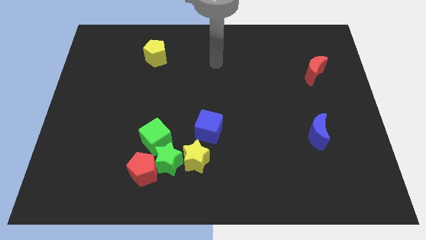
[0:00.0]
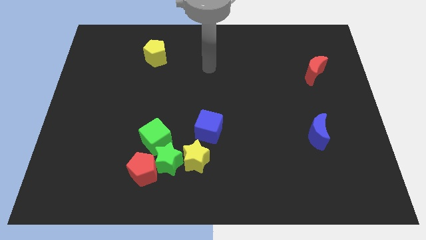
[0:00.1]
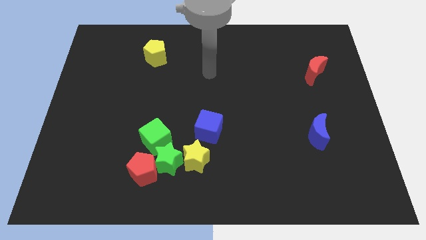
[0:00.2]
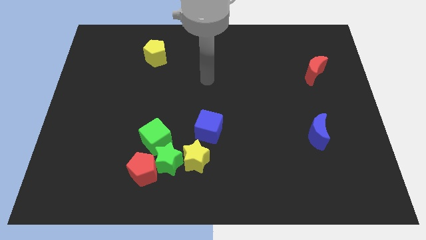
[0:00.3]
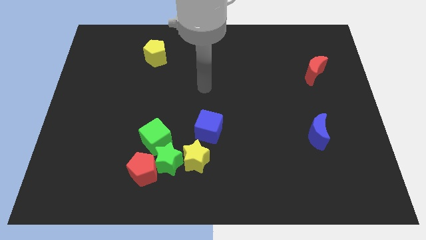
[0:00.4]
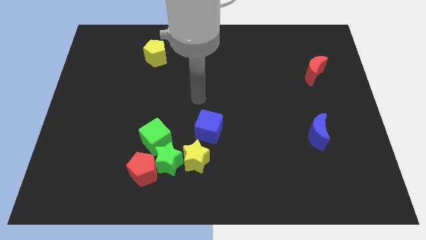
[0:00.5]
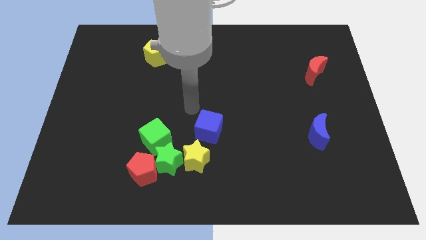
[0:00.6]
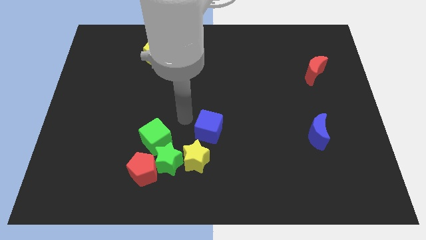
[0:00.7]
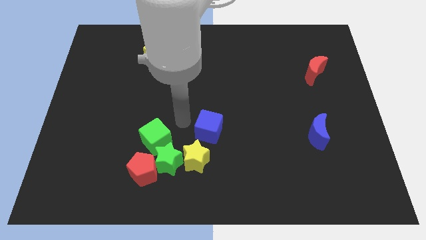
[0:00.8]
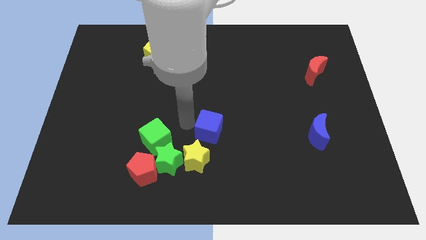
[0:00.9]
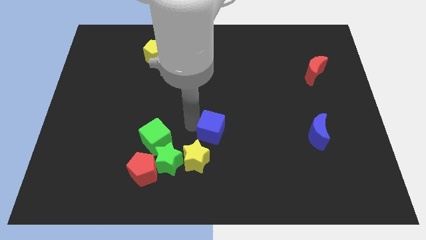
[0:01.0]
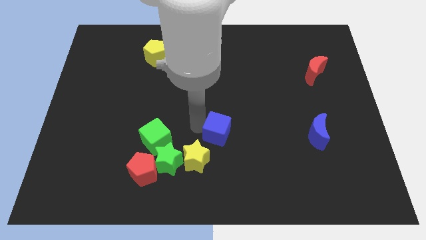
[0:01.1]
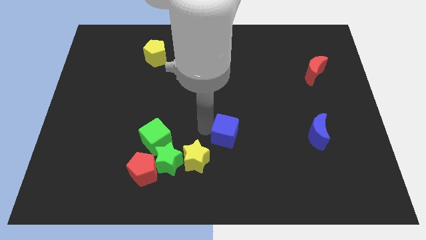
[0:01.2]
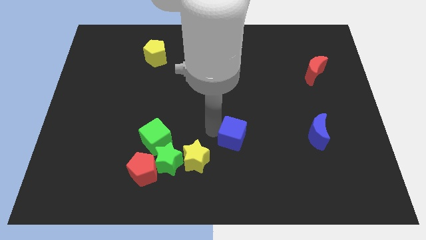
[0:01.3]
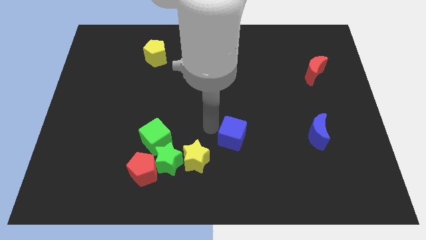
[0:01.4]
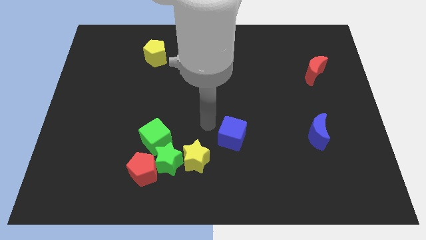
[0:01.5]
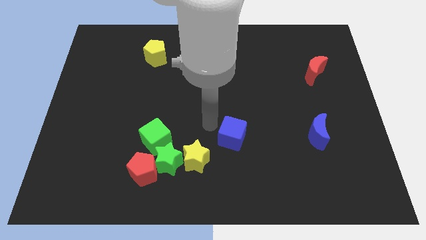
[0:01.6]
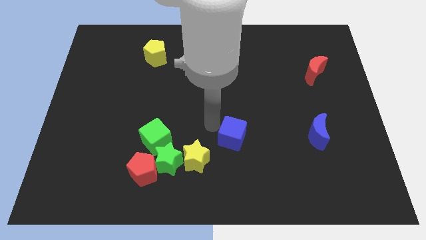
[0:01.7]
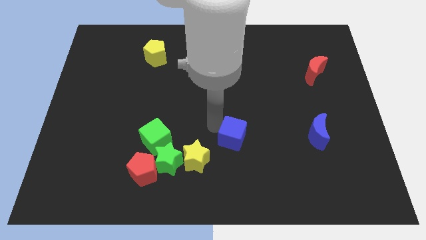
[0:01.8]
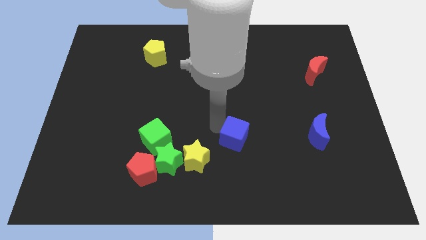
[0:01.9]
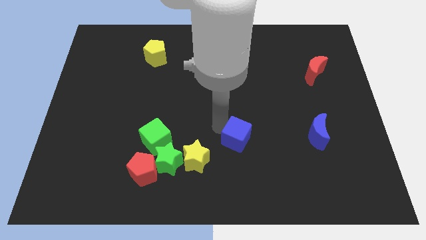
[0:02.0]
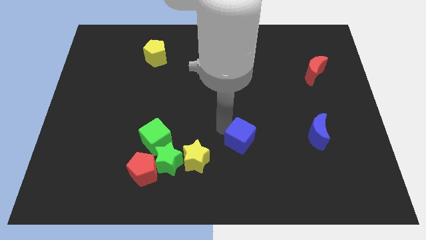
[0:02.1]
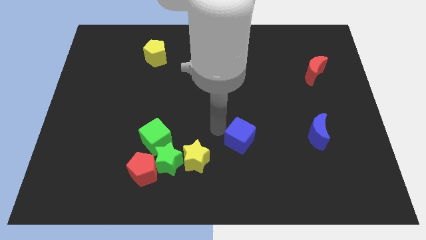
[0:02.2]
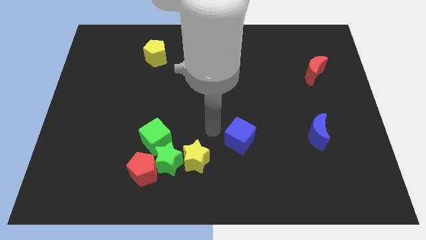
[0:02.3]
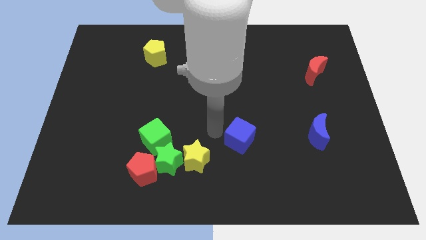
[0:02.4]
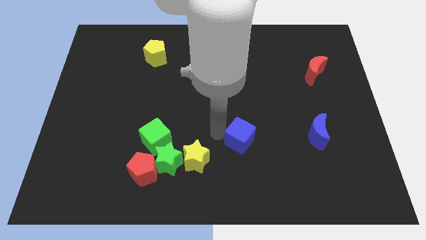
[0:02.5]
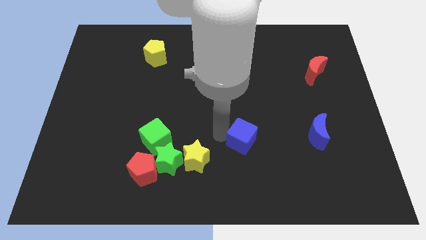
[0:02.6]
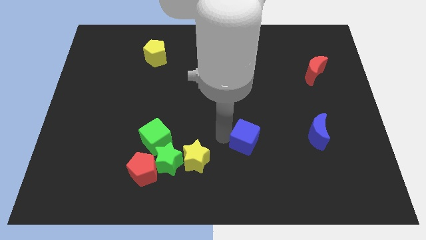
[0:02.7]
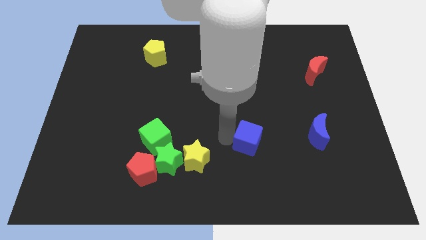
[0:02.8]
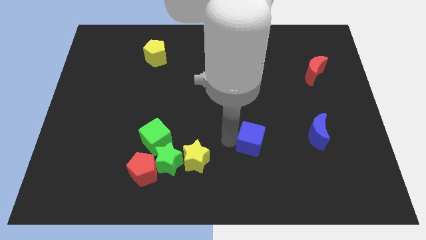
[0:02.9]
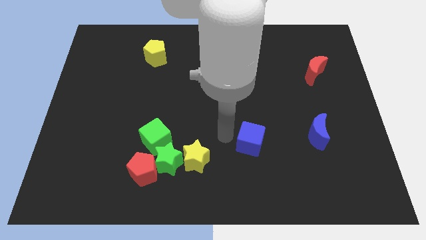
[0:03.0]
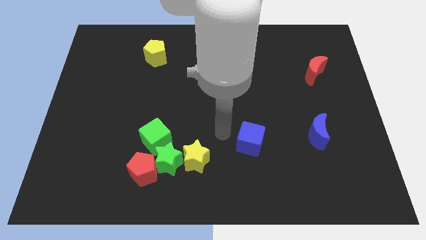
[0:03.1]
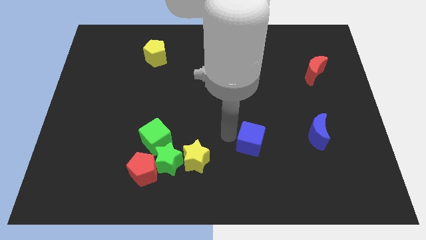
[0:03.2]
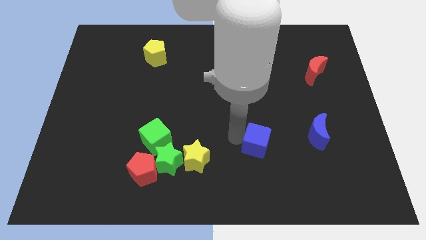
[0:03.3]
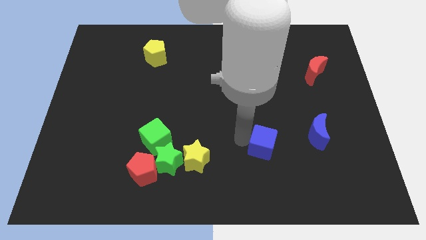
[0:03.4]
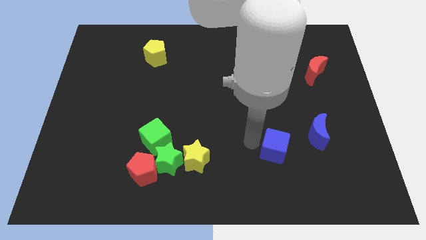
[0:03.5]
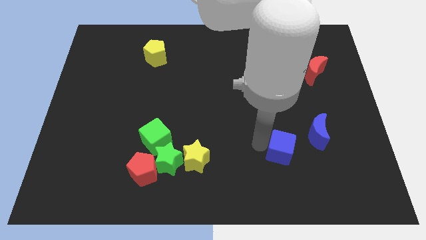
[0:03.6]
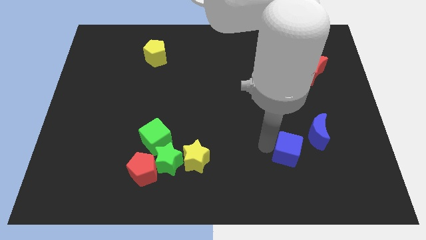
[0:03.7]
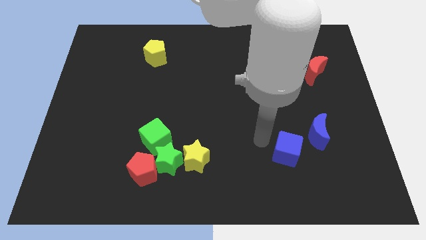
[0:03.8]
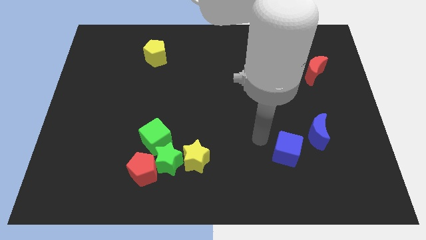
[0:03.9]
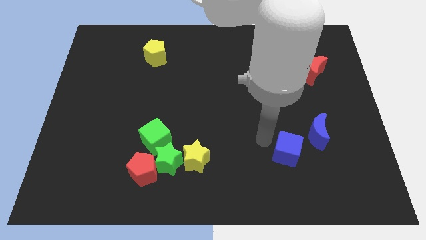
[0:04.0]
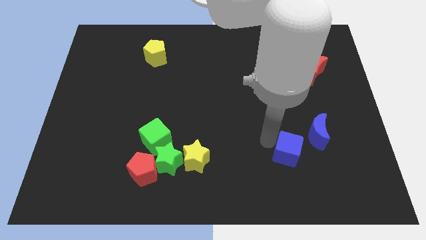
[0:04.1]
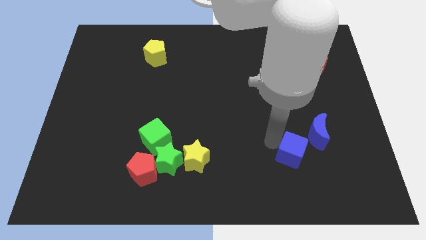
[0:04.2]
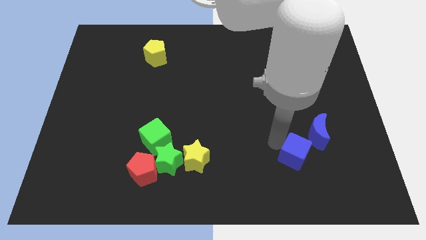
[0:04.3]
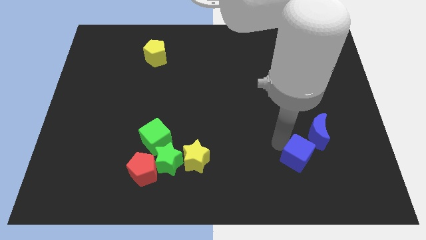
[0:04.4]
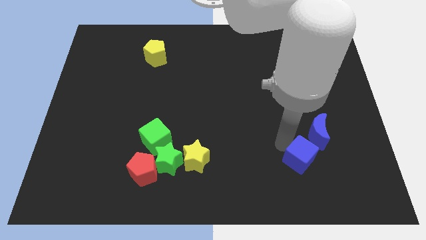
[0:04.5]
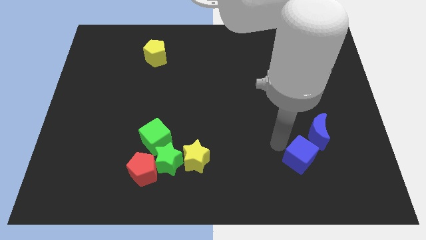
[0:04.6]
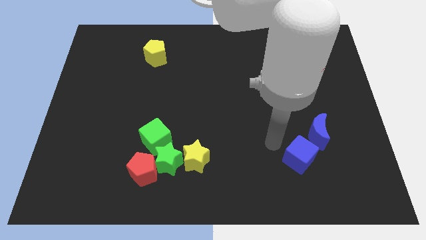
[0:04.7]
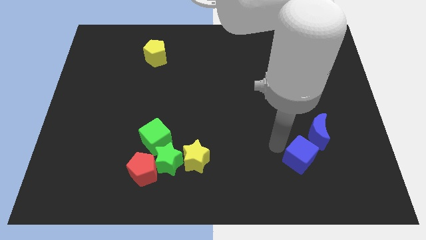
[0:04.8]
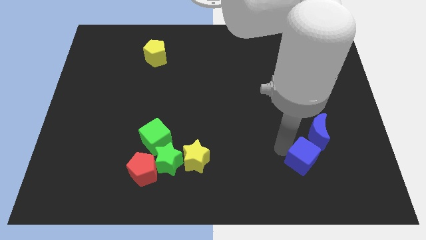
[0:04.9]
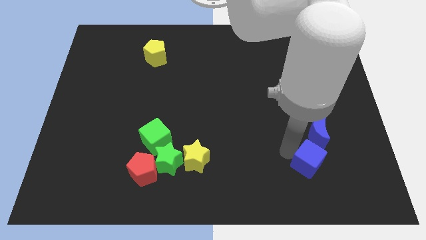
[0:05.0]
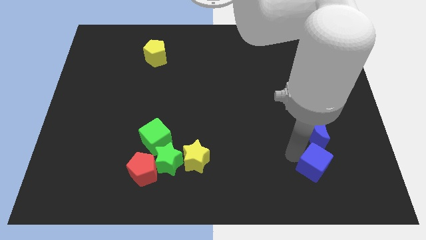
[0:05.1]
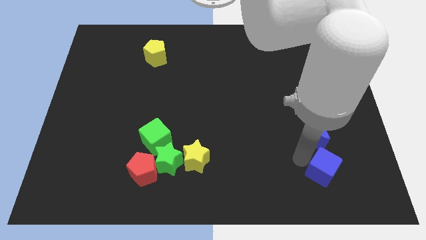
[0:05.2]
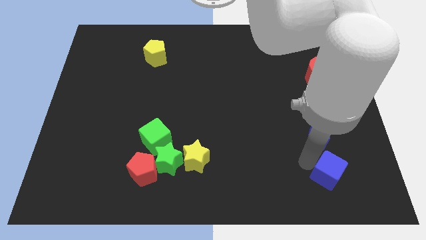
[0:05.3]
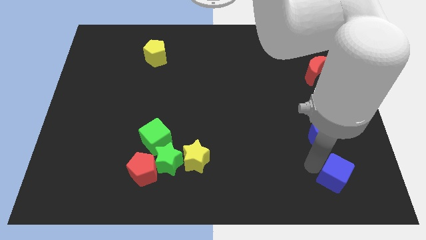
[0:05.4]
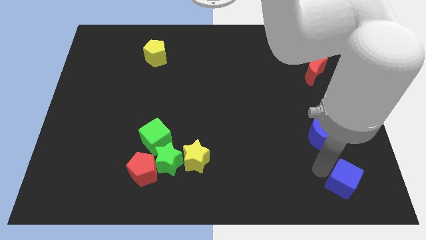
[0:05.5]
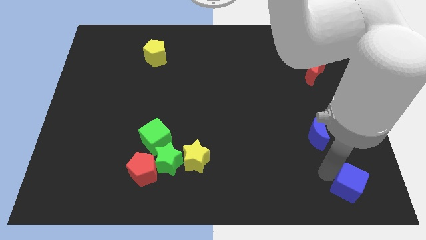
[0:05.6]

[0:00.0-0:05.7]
put the blue cube to the bottom right

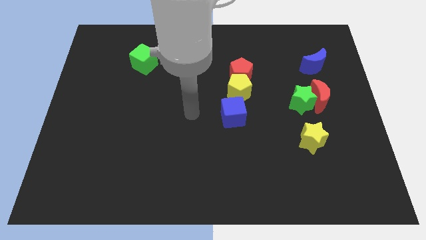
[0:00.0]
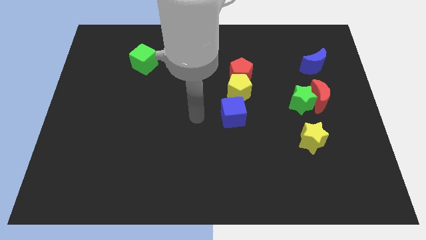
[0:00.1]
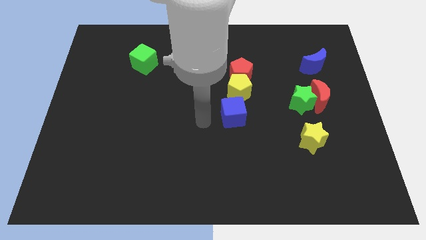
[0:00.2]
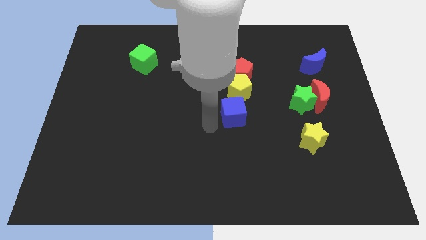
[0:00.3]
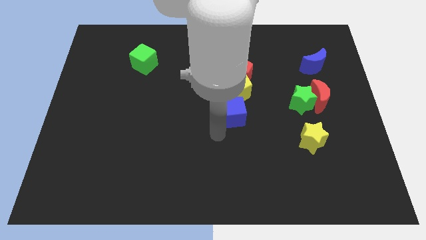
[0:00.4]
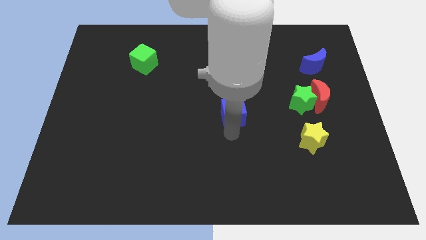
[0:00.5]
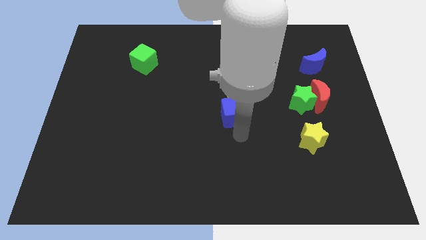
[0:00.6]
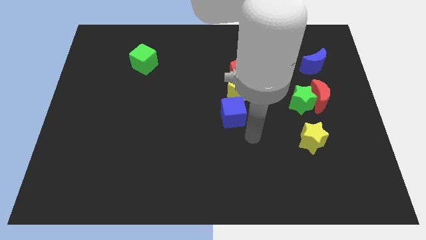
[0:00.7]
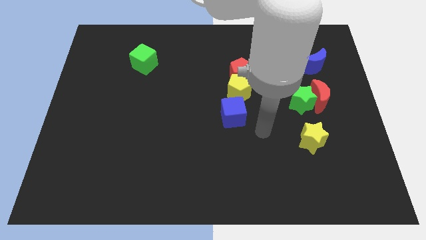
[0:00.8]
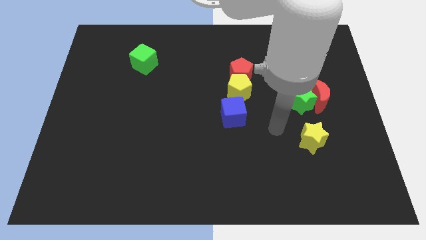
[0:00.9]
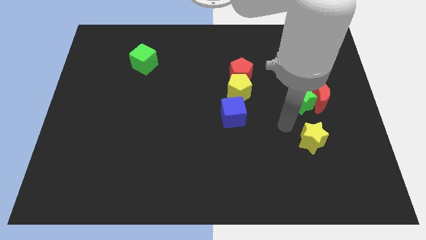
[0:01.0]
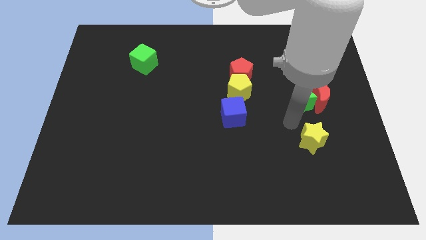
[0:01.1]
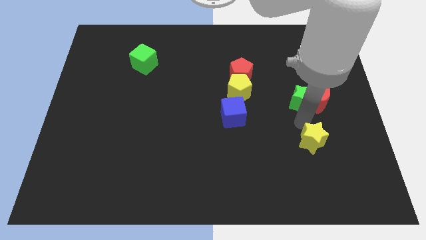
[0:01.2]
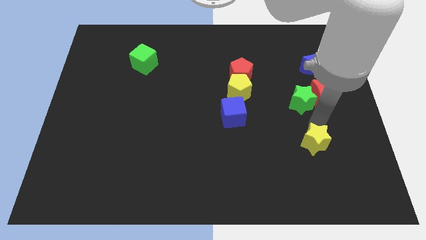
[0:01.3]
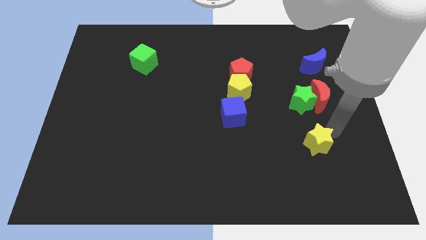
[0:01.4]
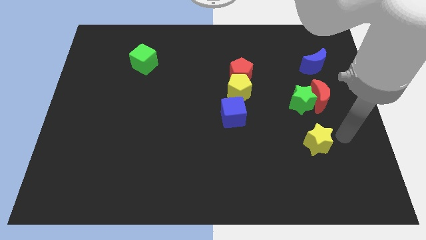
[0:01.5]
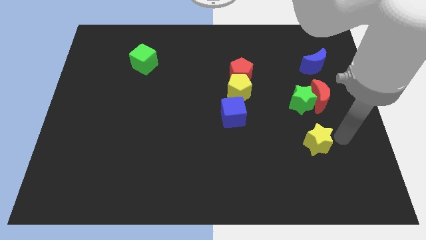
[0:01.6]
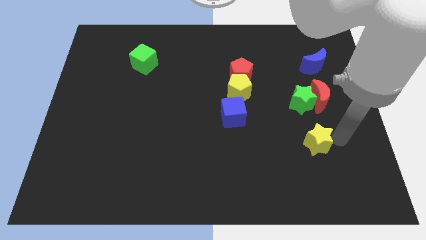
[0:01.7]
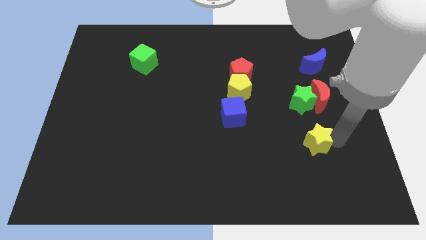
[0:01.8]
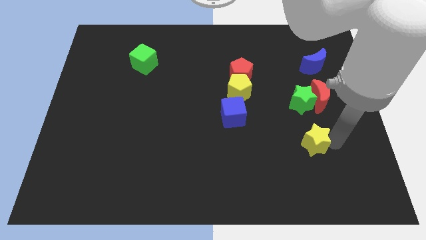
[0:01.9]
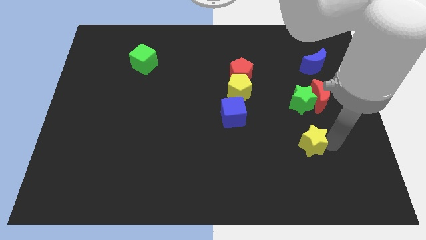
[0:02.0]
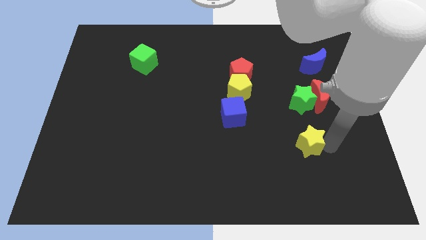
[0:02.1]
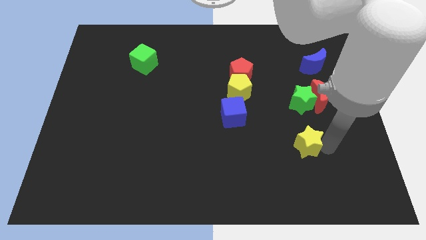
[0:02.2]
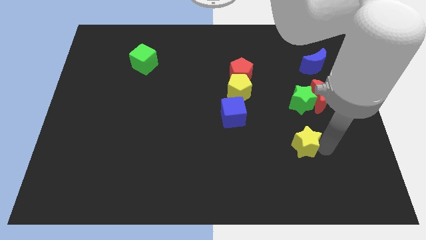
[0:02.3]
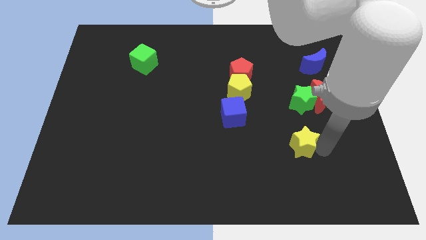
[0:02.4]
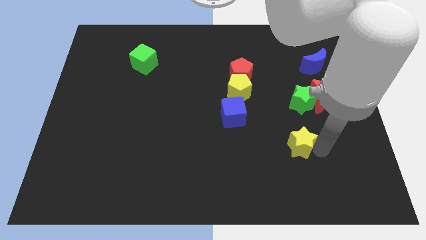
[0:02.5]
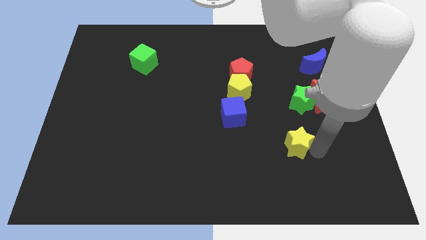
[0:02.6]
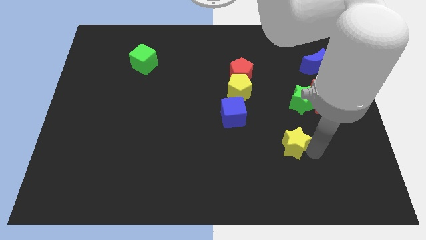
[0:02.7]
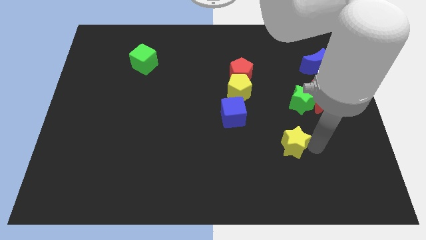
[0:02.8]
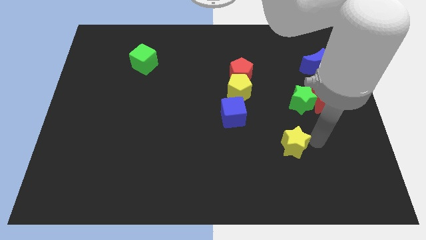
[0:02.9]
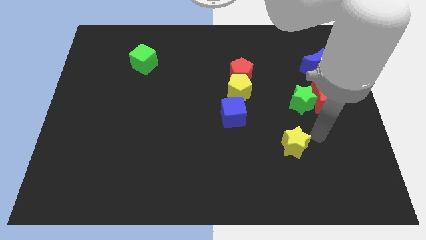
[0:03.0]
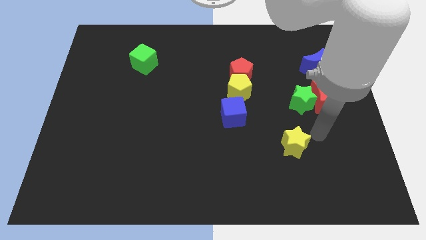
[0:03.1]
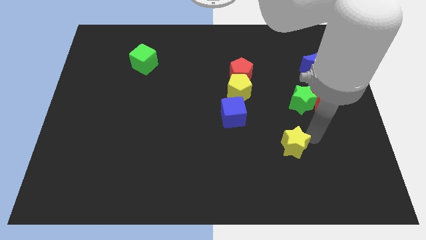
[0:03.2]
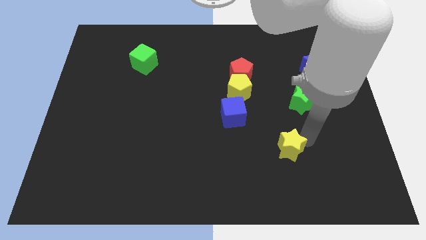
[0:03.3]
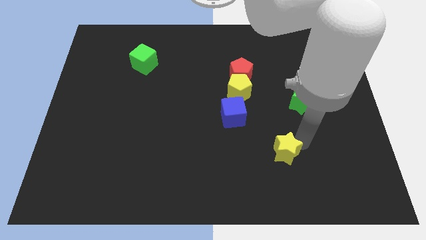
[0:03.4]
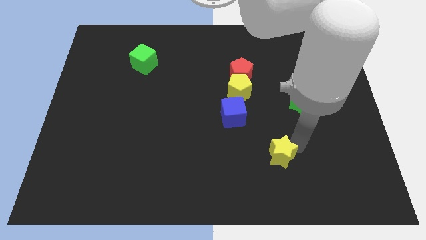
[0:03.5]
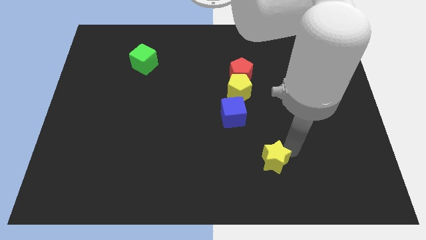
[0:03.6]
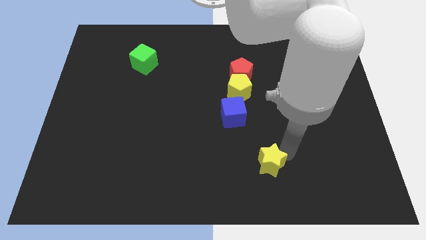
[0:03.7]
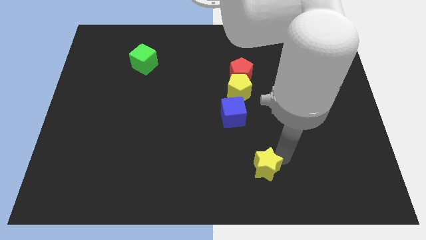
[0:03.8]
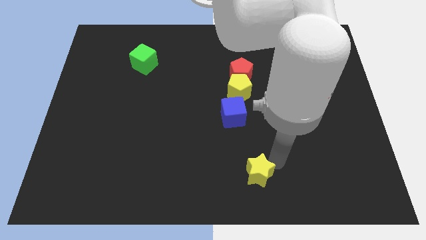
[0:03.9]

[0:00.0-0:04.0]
slide the yellow star to the bottom
